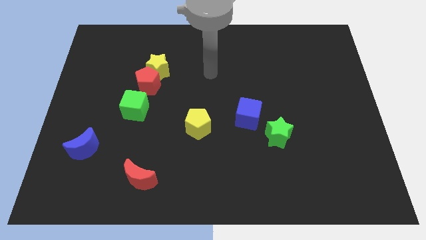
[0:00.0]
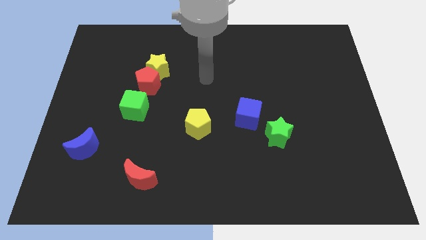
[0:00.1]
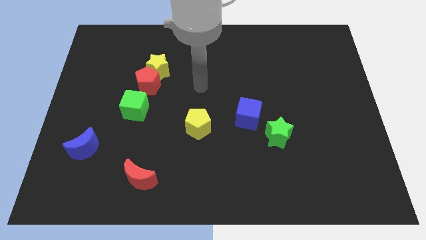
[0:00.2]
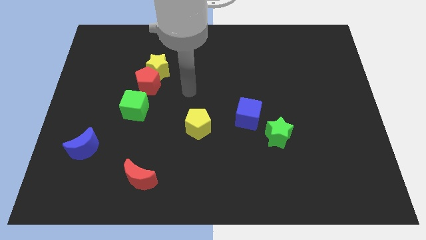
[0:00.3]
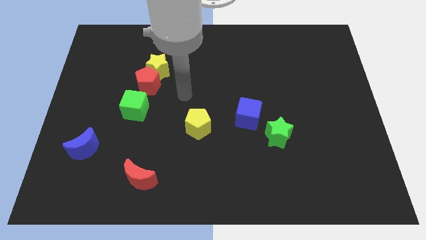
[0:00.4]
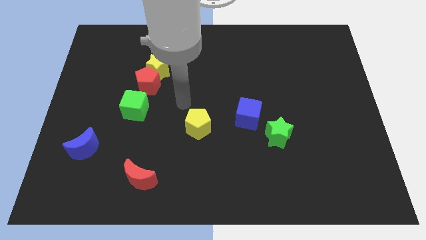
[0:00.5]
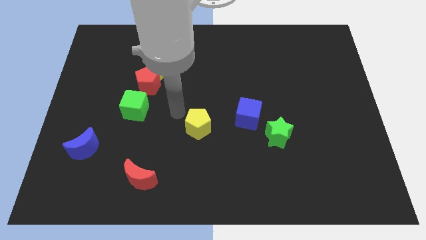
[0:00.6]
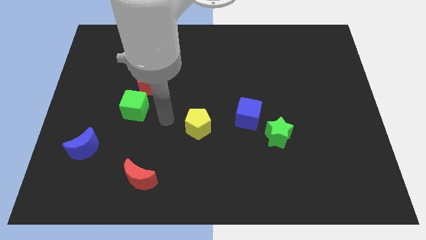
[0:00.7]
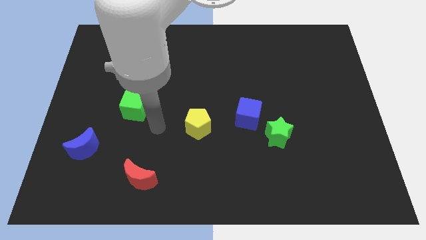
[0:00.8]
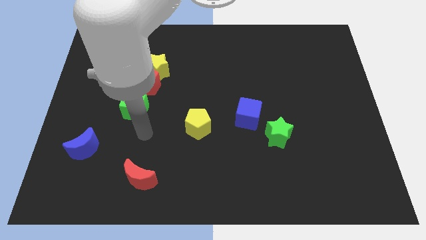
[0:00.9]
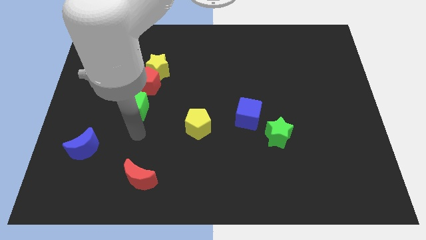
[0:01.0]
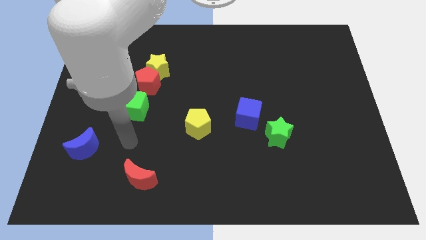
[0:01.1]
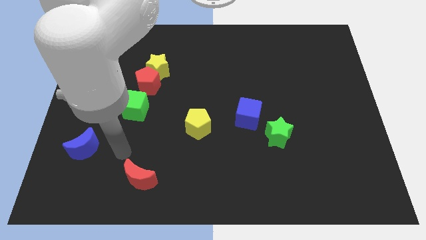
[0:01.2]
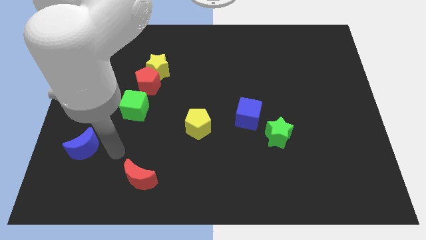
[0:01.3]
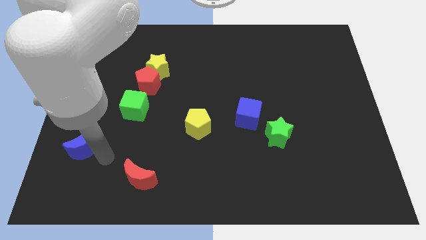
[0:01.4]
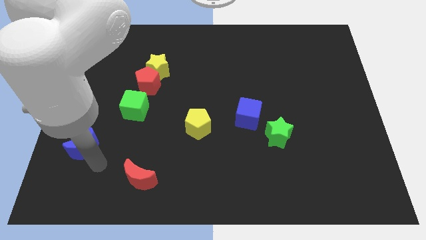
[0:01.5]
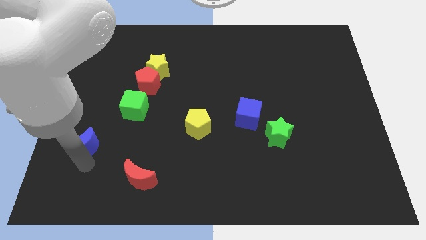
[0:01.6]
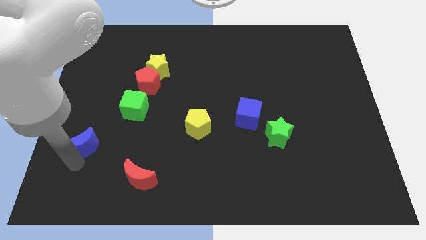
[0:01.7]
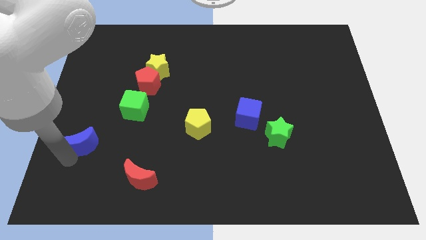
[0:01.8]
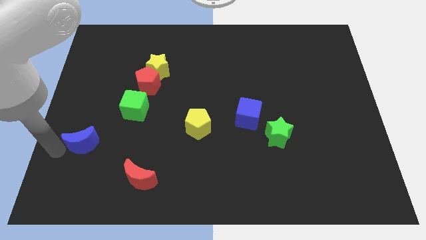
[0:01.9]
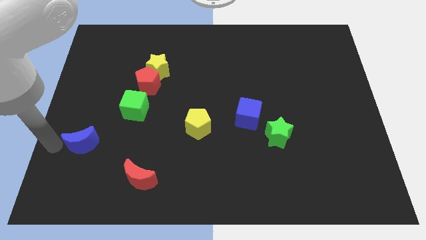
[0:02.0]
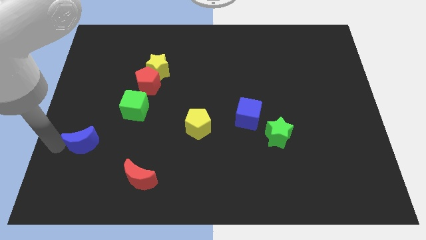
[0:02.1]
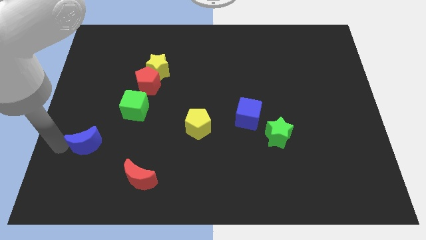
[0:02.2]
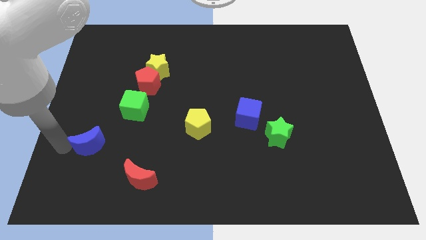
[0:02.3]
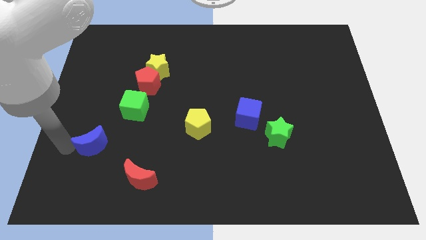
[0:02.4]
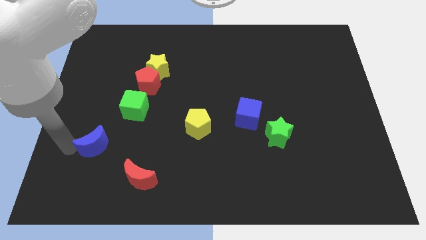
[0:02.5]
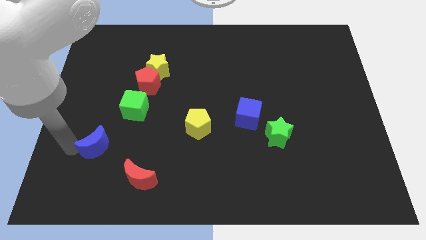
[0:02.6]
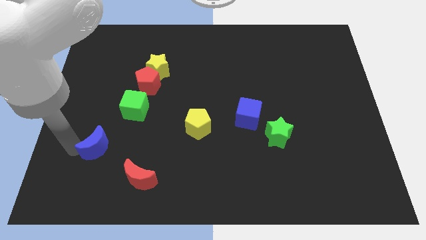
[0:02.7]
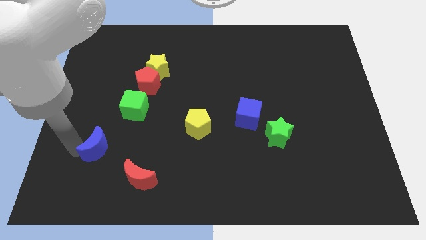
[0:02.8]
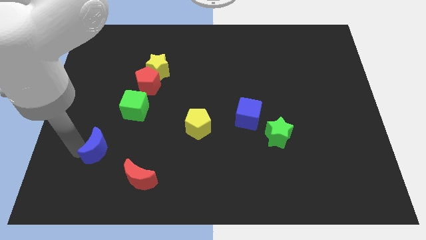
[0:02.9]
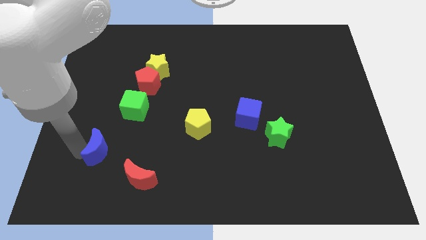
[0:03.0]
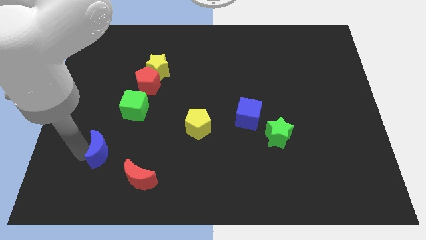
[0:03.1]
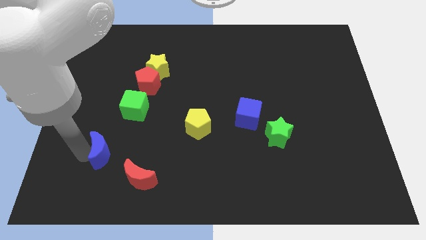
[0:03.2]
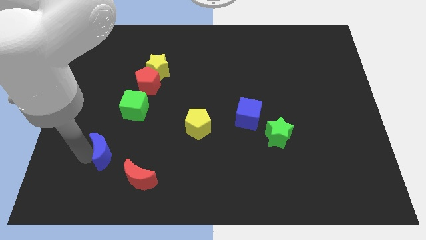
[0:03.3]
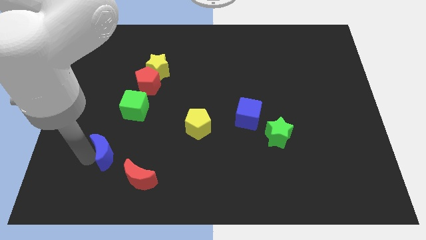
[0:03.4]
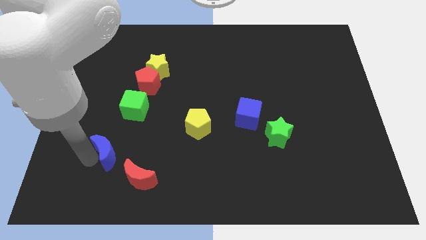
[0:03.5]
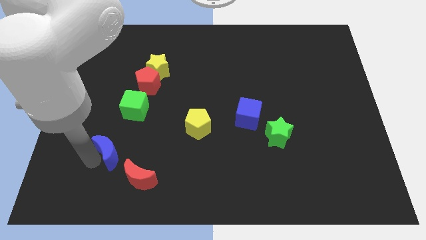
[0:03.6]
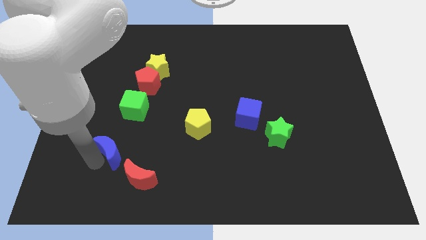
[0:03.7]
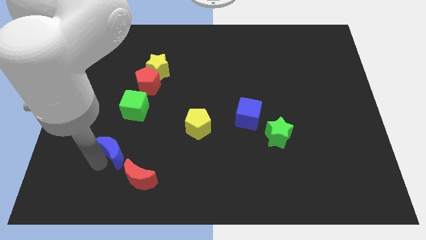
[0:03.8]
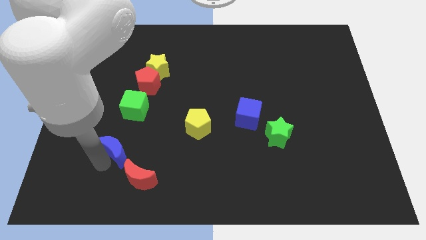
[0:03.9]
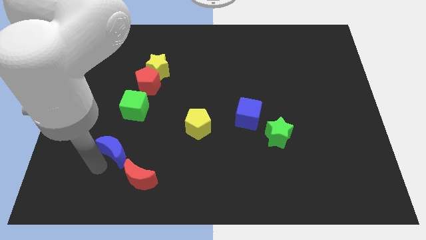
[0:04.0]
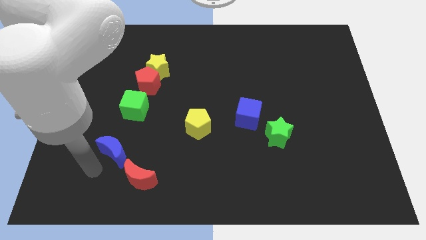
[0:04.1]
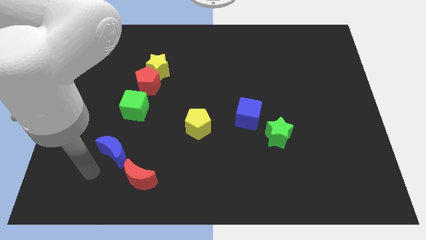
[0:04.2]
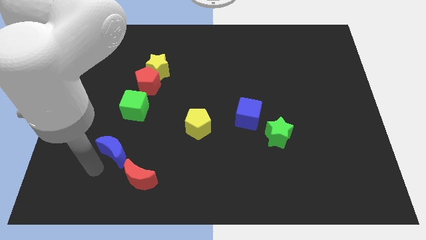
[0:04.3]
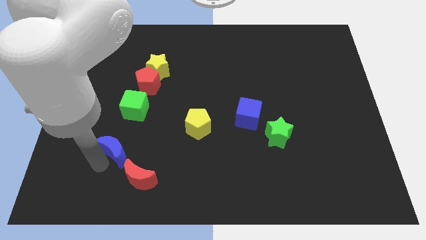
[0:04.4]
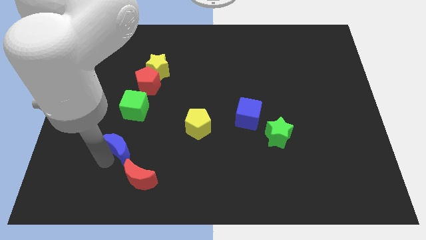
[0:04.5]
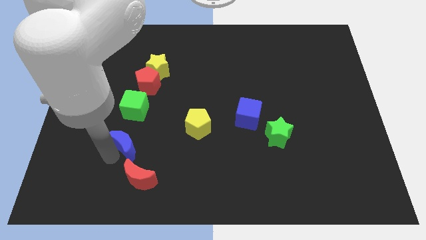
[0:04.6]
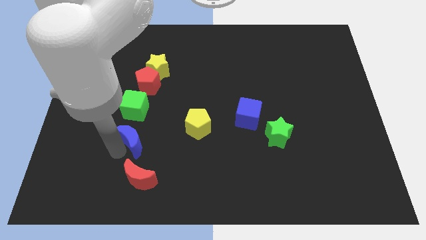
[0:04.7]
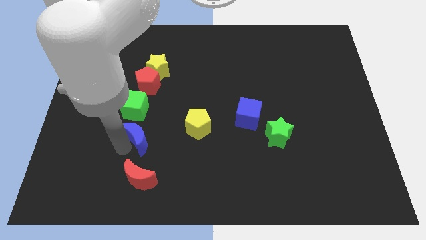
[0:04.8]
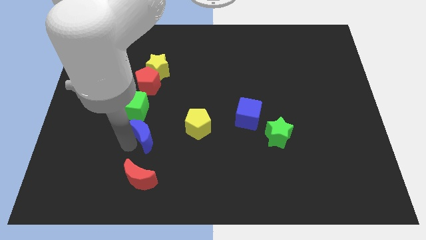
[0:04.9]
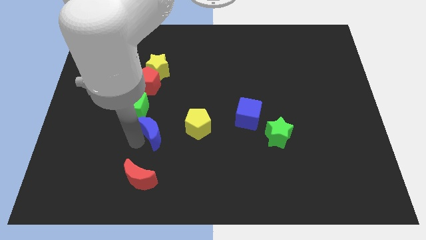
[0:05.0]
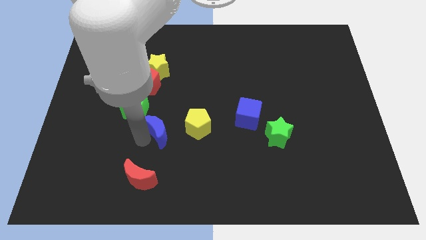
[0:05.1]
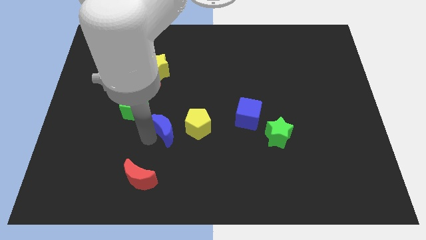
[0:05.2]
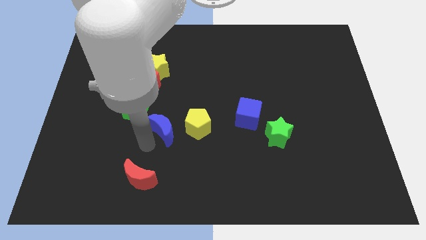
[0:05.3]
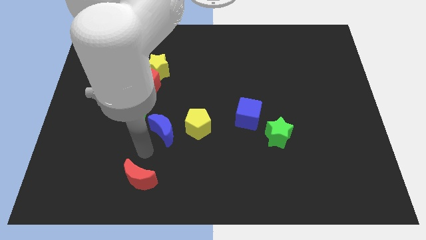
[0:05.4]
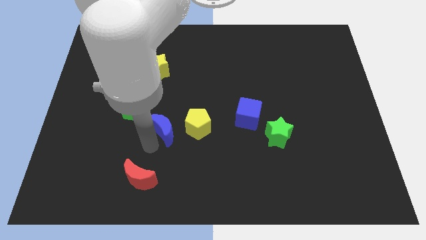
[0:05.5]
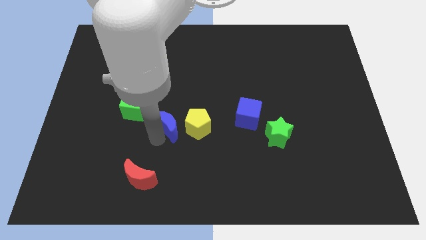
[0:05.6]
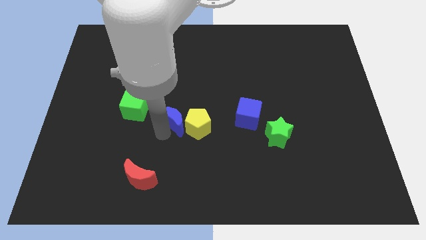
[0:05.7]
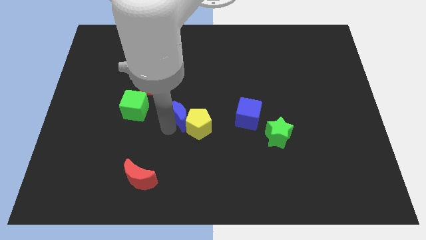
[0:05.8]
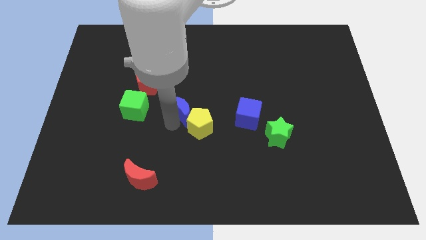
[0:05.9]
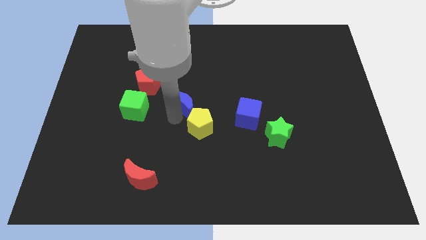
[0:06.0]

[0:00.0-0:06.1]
move the blue moon diagonally upwards and to the right

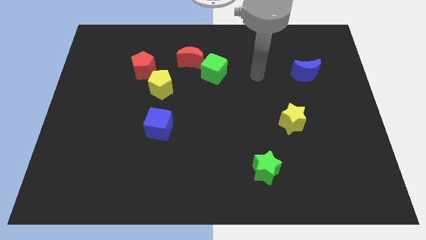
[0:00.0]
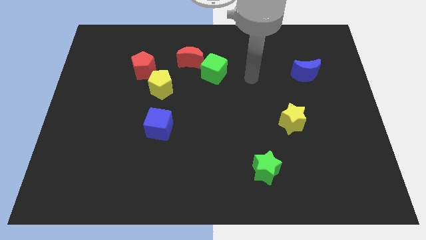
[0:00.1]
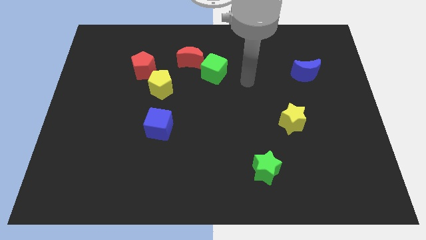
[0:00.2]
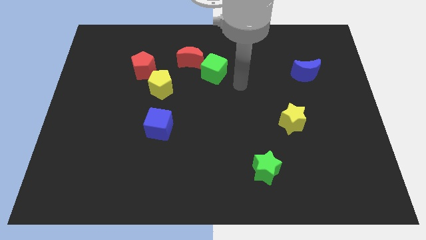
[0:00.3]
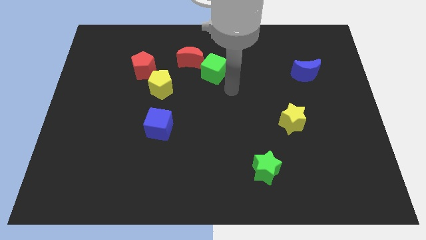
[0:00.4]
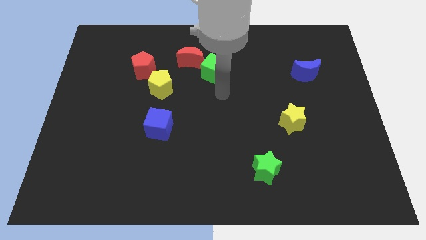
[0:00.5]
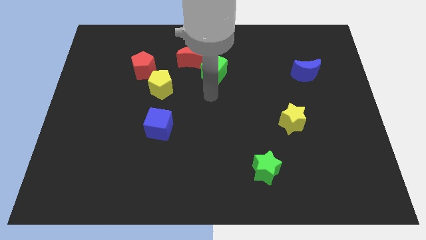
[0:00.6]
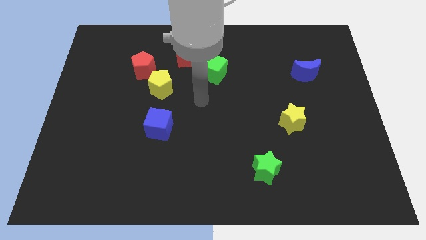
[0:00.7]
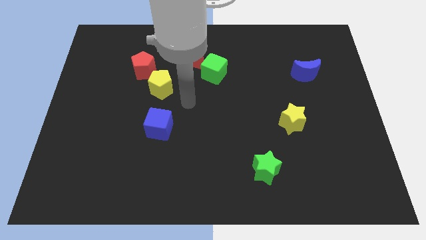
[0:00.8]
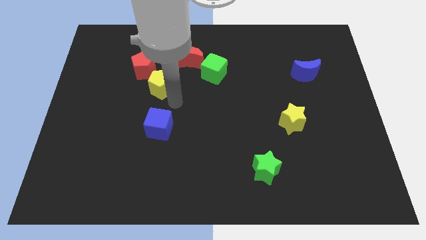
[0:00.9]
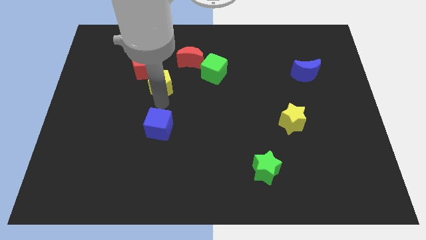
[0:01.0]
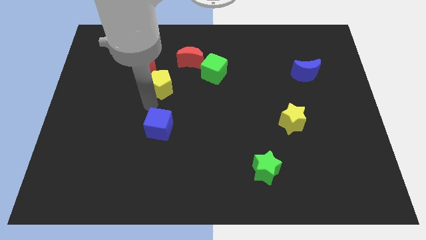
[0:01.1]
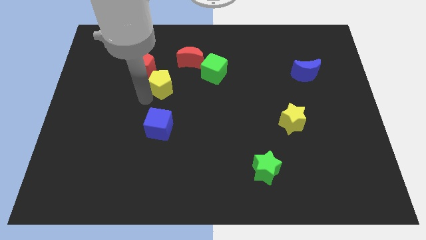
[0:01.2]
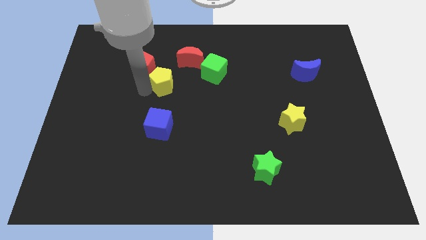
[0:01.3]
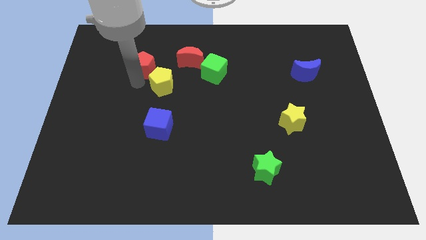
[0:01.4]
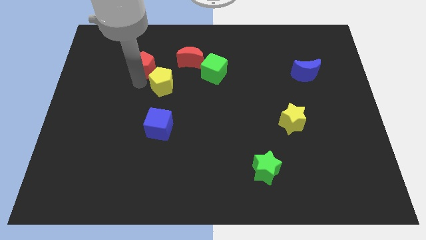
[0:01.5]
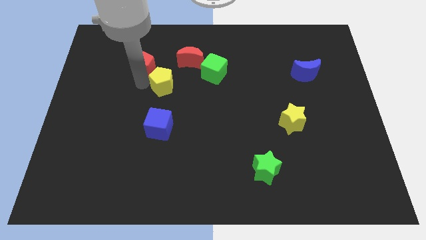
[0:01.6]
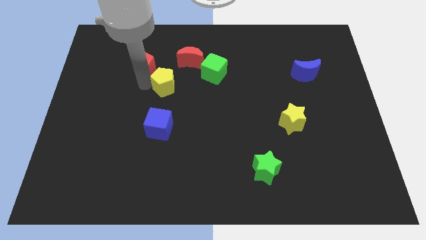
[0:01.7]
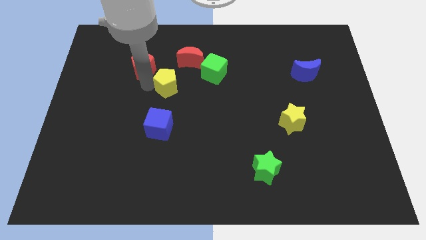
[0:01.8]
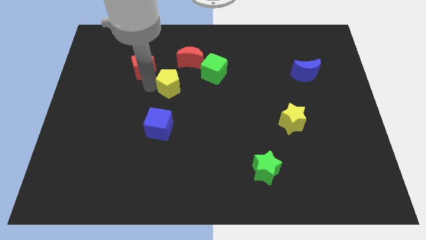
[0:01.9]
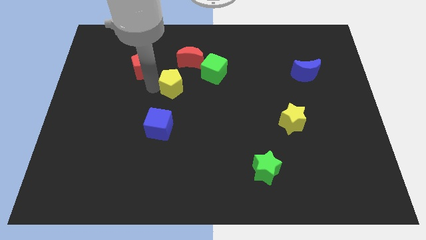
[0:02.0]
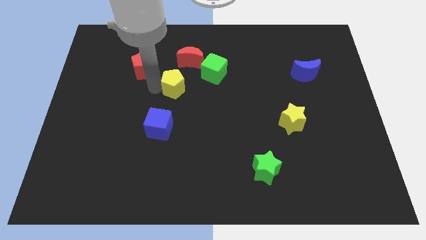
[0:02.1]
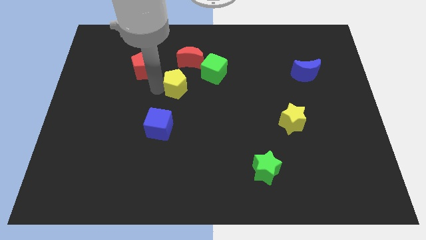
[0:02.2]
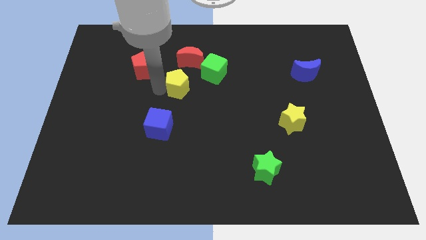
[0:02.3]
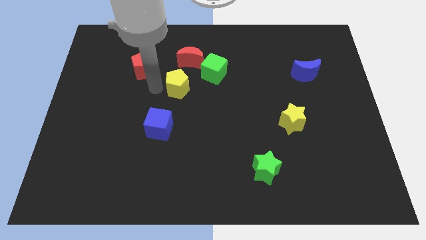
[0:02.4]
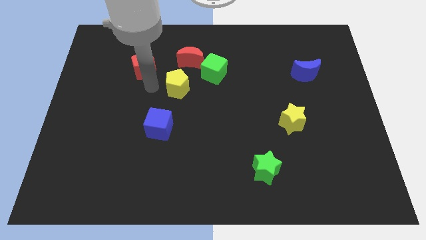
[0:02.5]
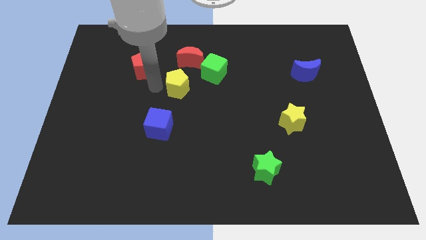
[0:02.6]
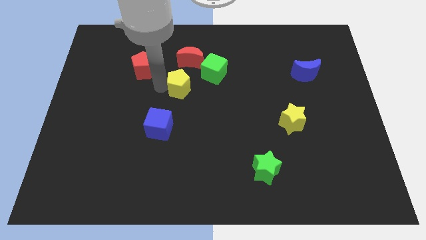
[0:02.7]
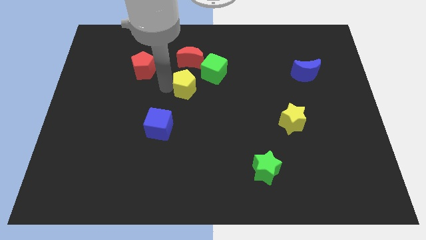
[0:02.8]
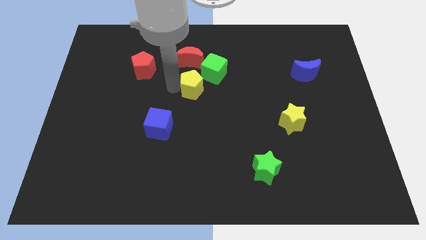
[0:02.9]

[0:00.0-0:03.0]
slightly move the yellow pentagon to the right
